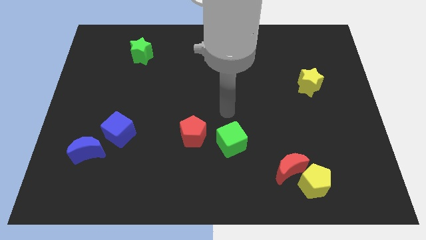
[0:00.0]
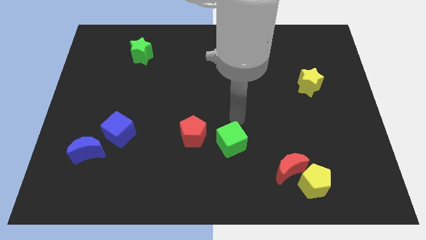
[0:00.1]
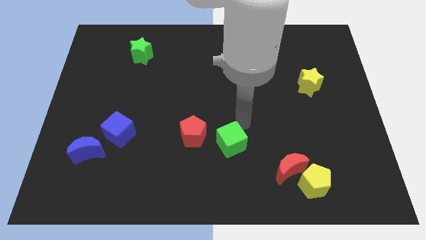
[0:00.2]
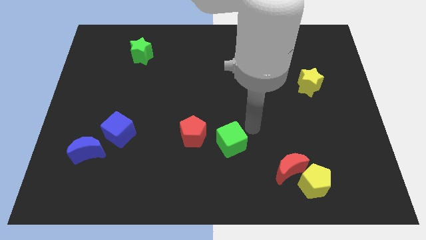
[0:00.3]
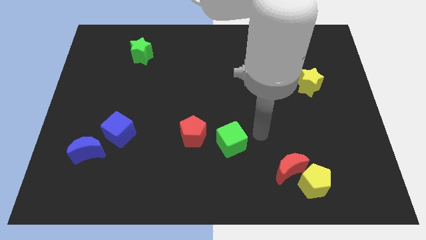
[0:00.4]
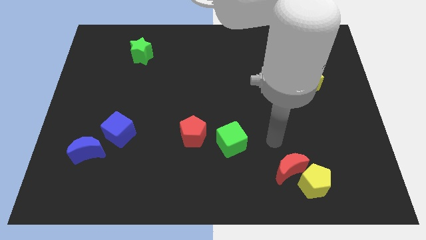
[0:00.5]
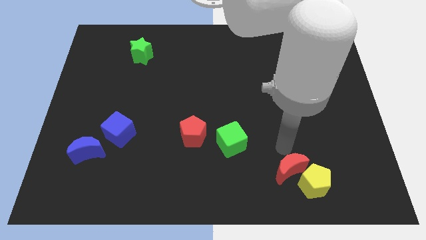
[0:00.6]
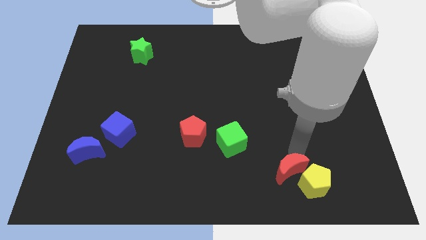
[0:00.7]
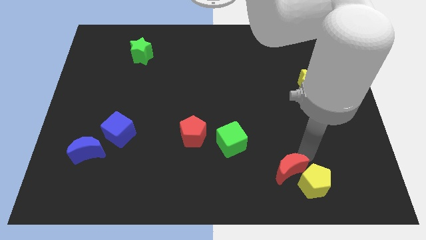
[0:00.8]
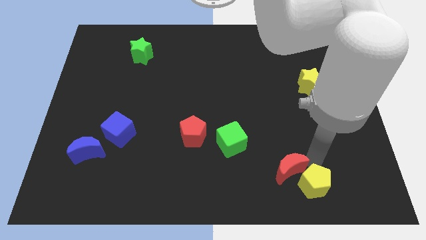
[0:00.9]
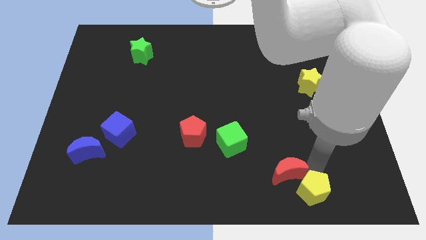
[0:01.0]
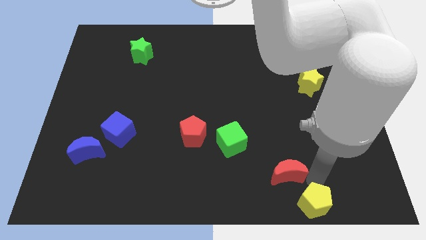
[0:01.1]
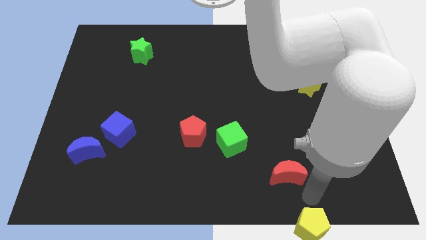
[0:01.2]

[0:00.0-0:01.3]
separate the red moon from the yellow pentagon

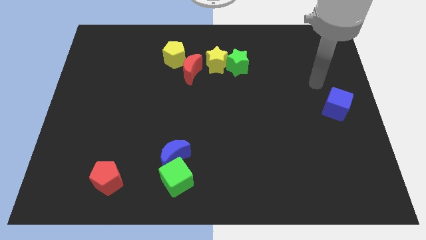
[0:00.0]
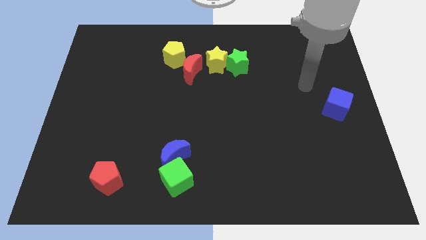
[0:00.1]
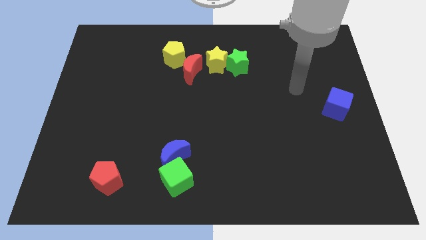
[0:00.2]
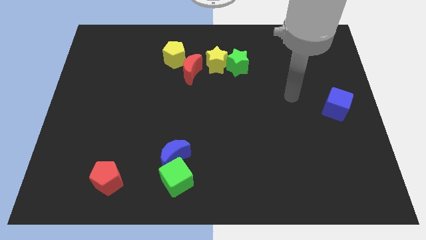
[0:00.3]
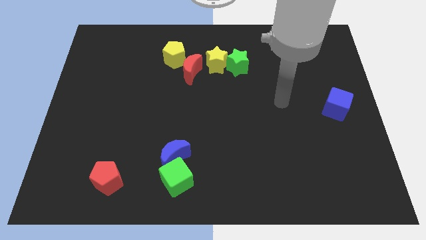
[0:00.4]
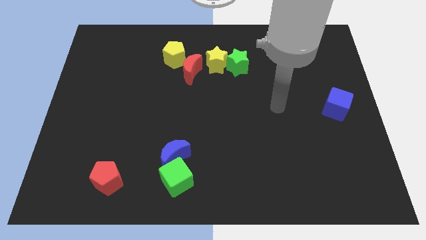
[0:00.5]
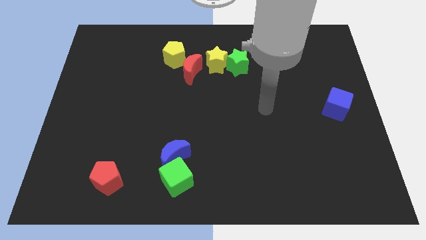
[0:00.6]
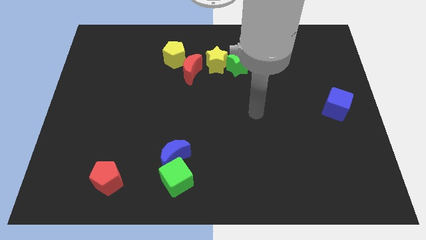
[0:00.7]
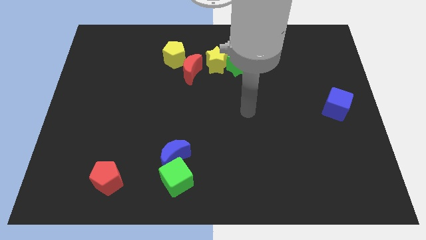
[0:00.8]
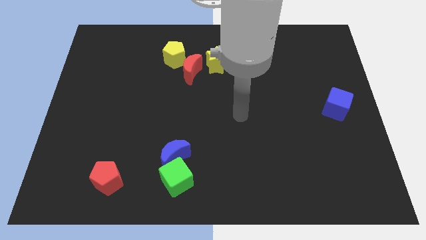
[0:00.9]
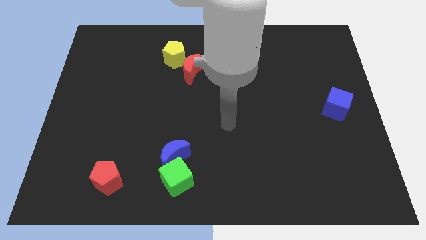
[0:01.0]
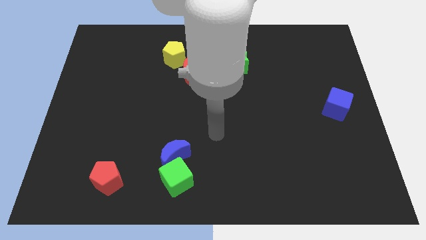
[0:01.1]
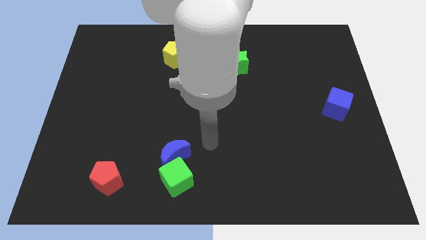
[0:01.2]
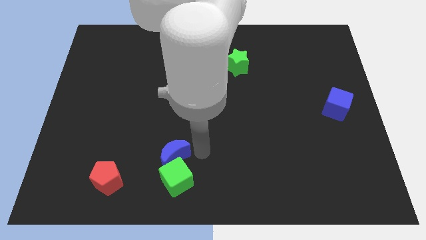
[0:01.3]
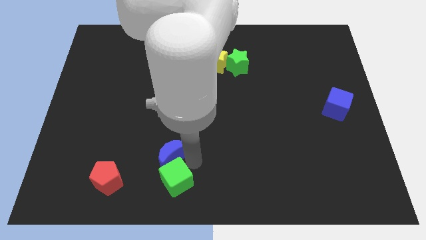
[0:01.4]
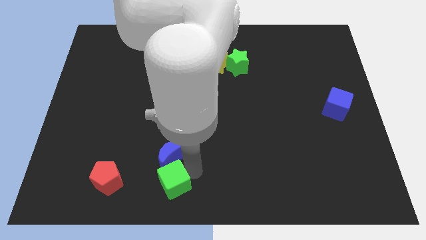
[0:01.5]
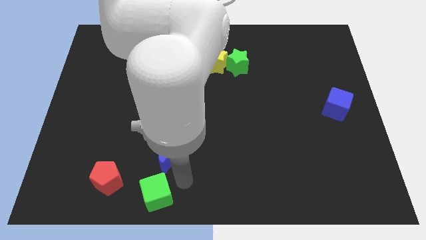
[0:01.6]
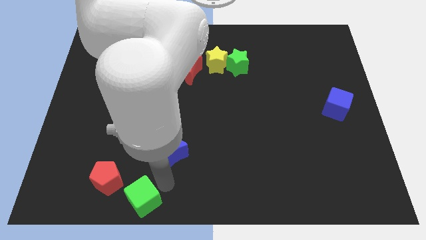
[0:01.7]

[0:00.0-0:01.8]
move the blue moon away from the green cube

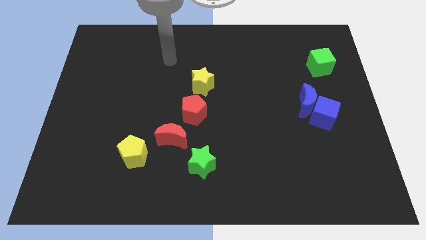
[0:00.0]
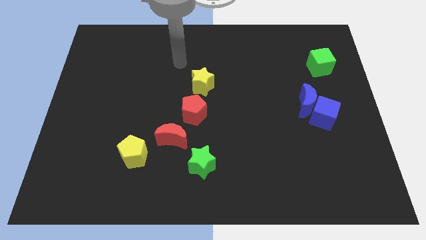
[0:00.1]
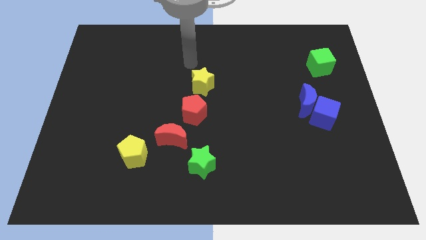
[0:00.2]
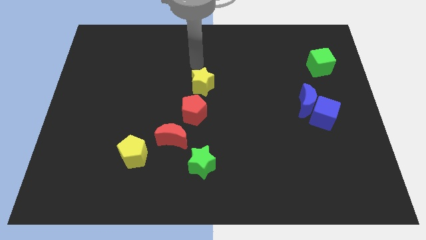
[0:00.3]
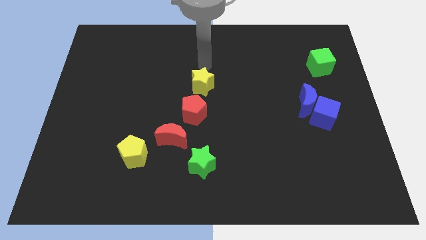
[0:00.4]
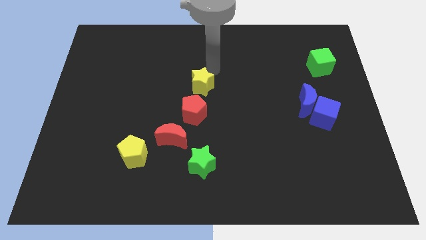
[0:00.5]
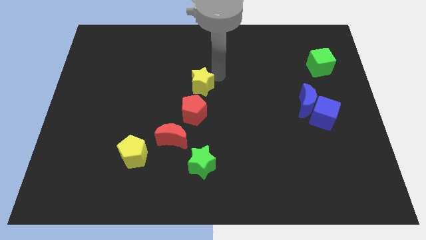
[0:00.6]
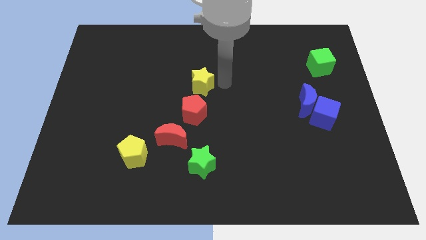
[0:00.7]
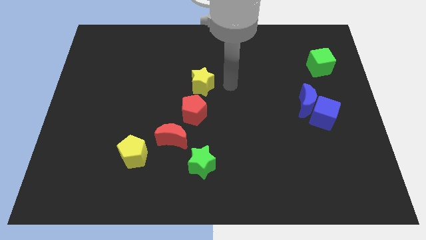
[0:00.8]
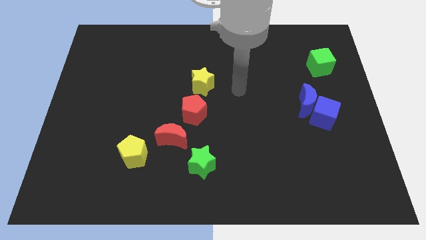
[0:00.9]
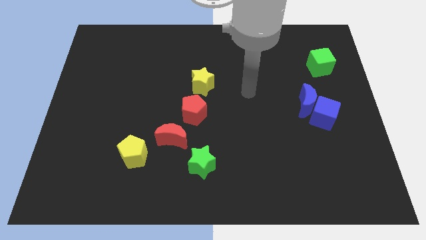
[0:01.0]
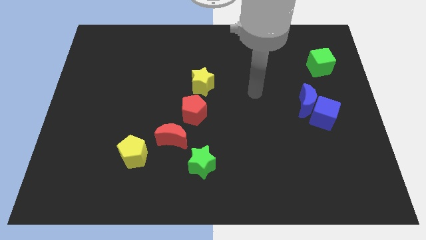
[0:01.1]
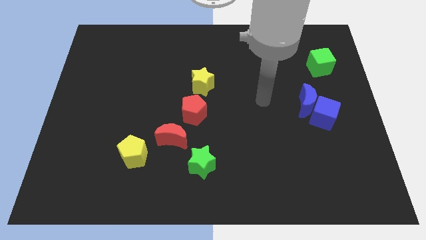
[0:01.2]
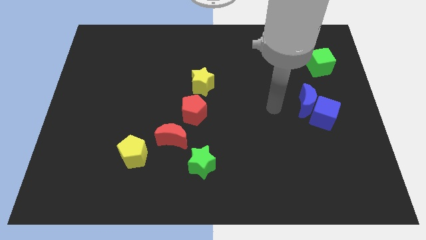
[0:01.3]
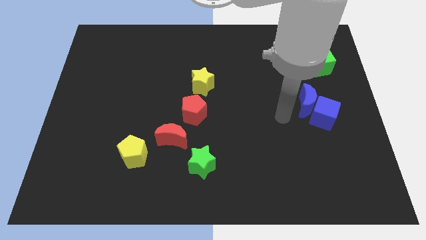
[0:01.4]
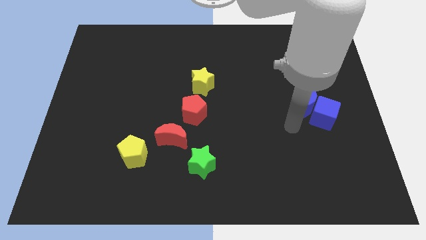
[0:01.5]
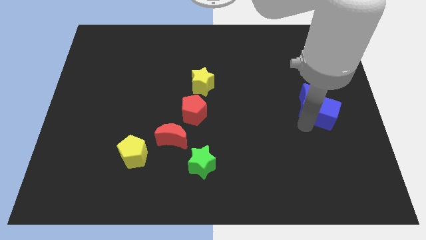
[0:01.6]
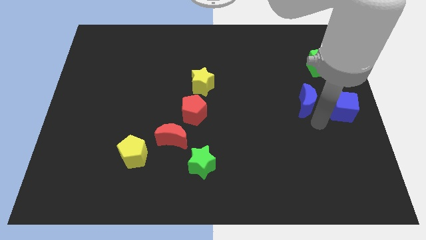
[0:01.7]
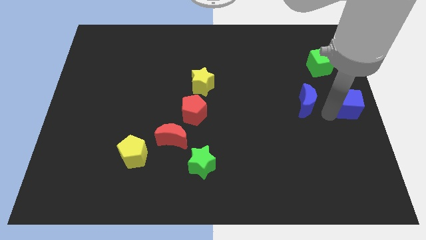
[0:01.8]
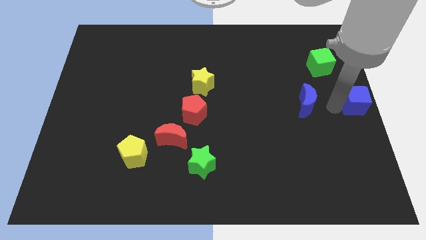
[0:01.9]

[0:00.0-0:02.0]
move the blue moon away from the blue cube

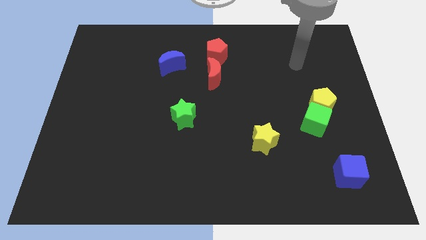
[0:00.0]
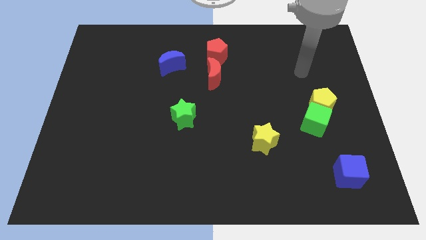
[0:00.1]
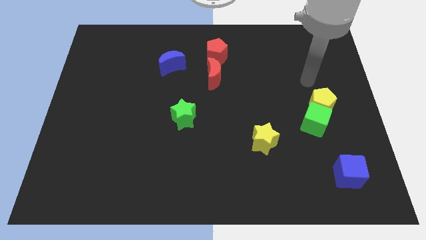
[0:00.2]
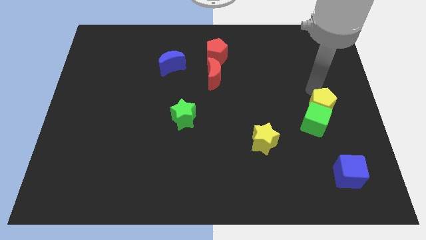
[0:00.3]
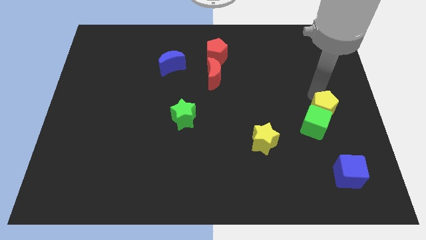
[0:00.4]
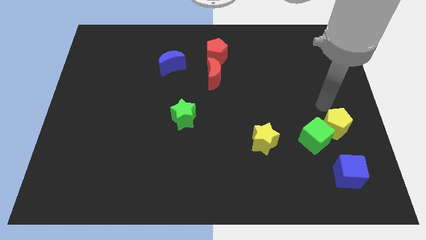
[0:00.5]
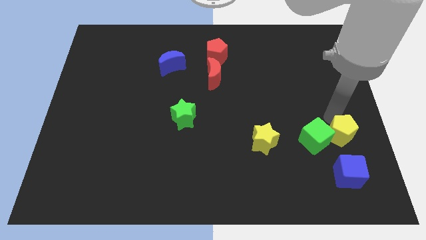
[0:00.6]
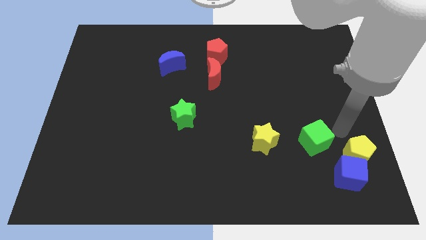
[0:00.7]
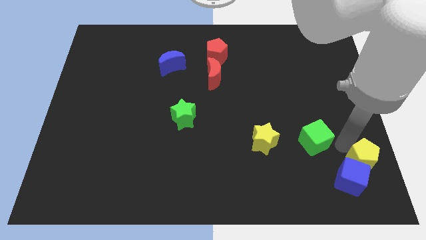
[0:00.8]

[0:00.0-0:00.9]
separate the green cube from the yellow pentagon

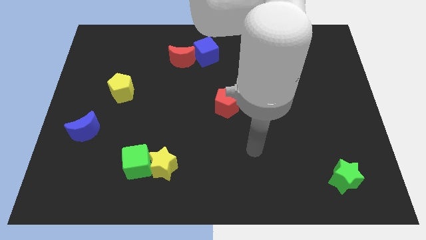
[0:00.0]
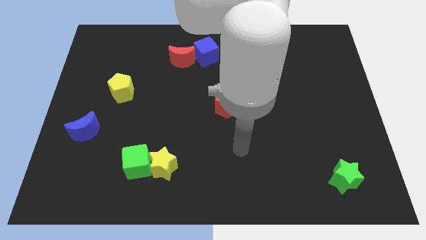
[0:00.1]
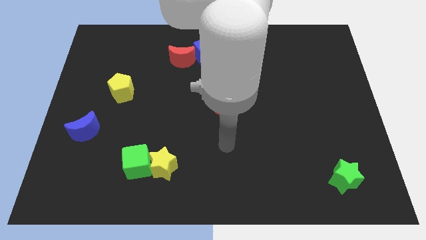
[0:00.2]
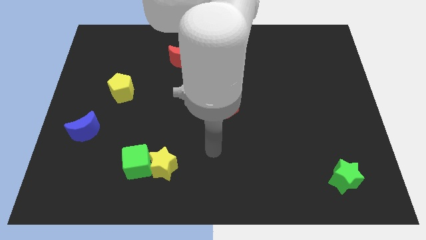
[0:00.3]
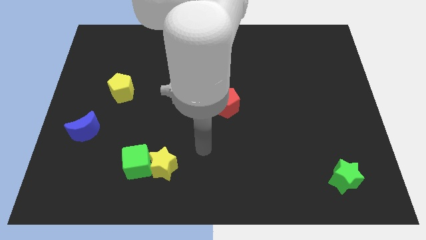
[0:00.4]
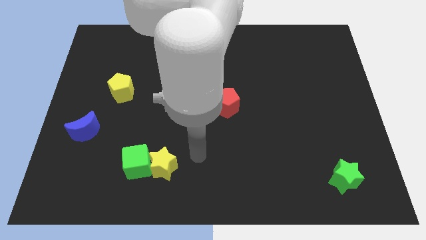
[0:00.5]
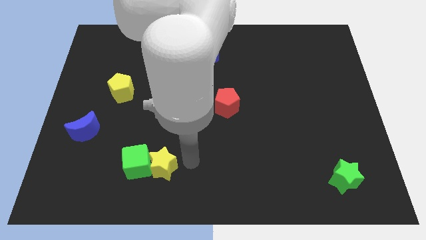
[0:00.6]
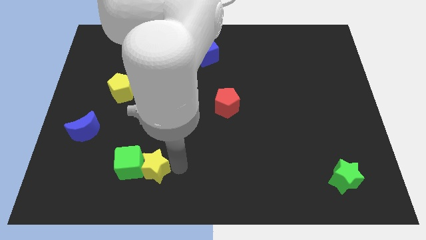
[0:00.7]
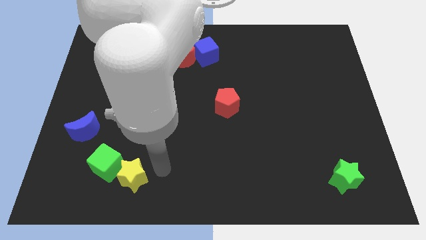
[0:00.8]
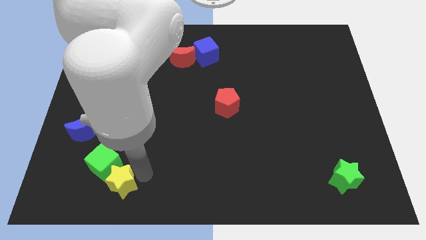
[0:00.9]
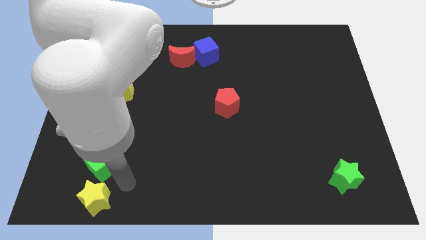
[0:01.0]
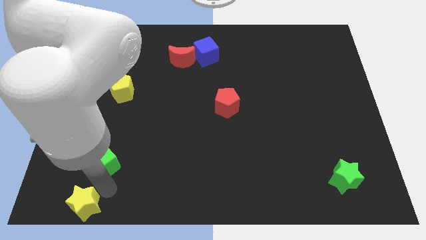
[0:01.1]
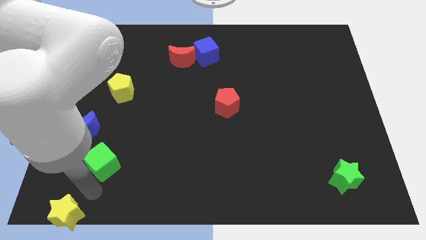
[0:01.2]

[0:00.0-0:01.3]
separate the green cube from the yellow star

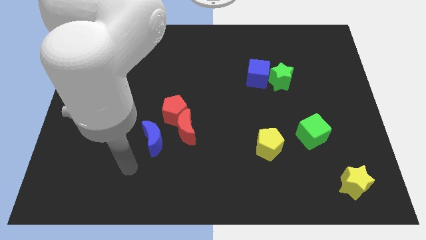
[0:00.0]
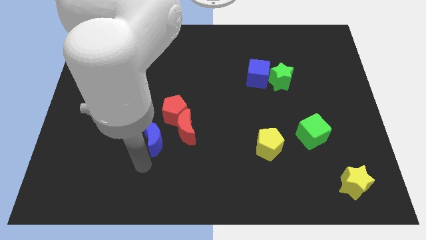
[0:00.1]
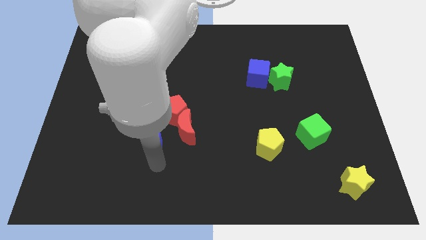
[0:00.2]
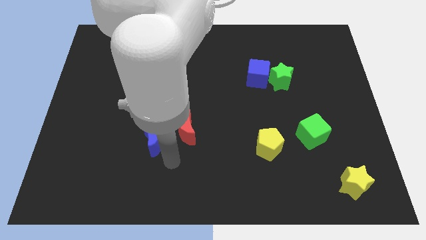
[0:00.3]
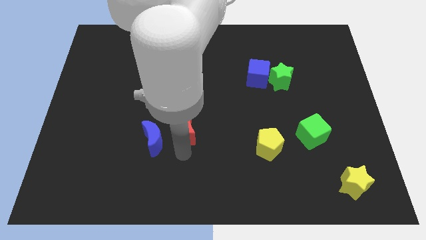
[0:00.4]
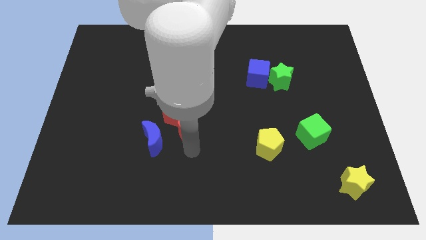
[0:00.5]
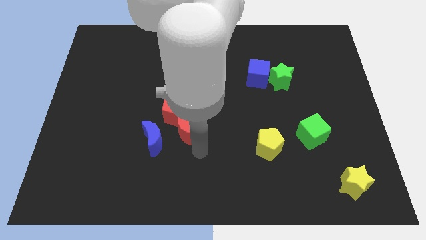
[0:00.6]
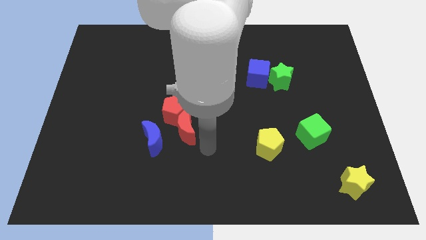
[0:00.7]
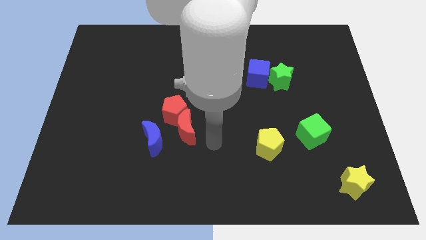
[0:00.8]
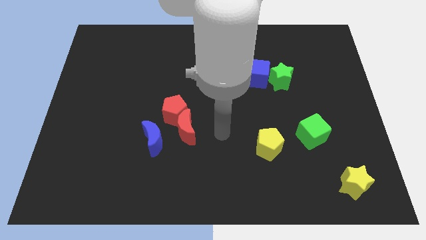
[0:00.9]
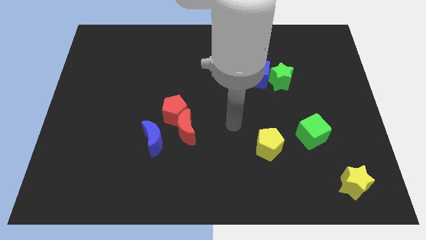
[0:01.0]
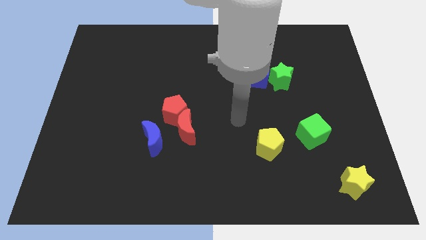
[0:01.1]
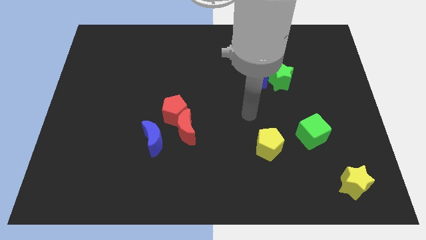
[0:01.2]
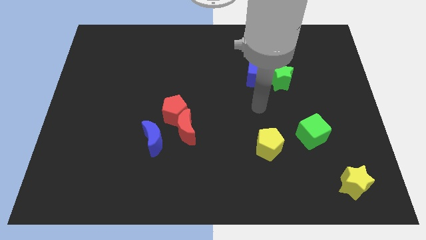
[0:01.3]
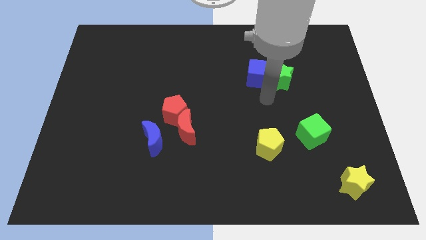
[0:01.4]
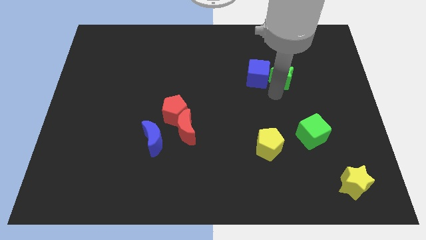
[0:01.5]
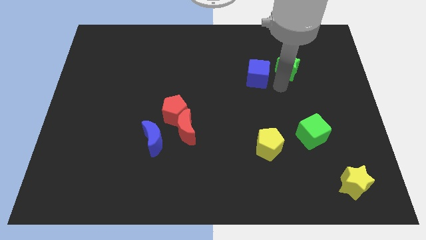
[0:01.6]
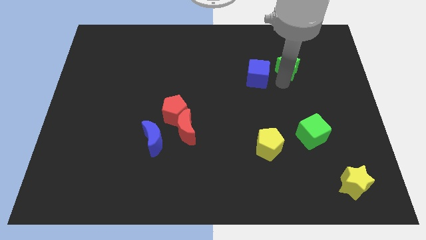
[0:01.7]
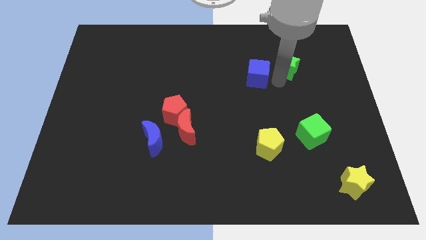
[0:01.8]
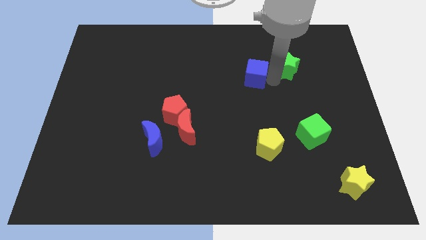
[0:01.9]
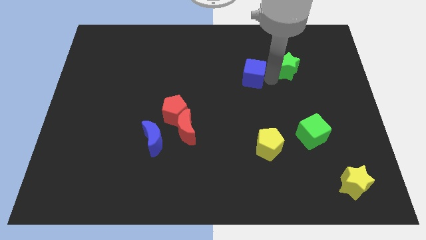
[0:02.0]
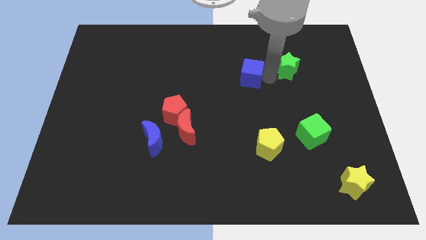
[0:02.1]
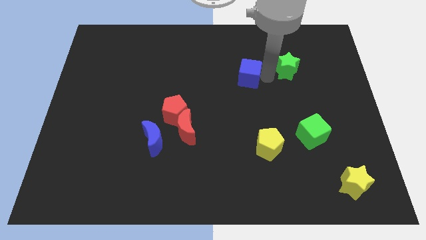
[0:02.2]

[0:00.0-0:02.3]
pull the blue cube apart from the green star
